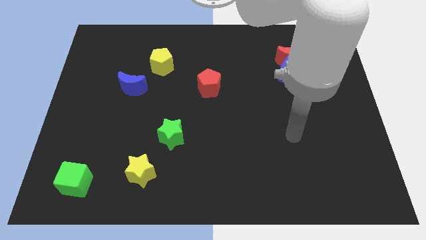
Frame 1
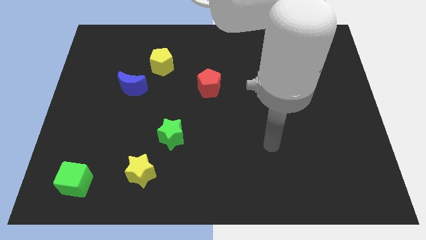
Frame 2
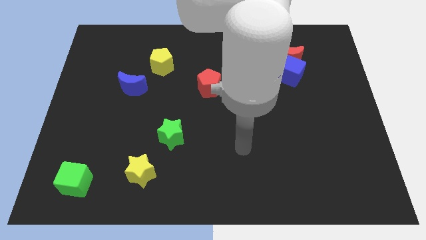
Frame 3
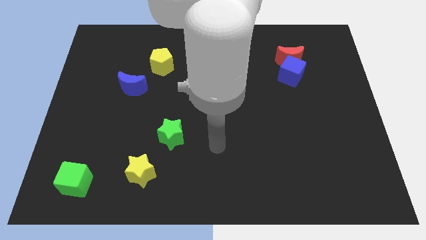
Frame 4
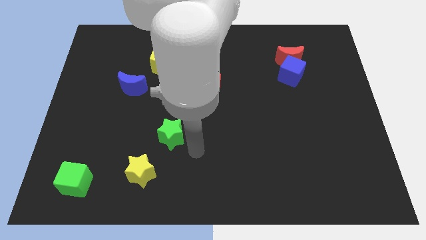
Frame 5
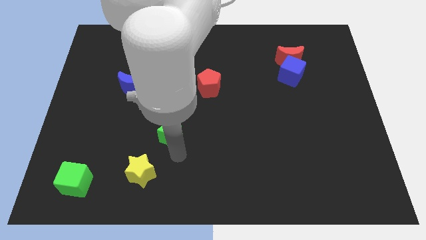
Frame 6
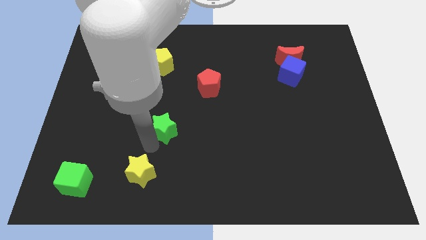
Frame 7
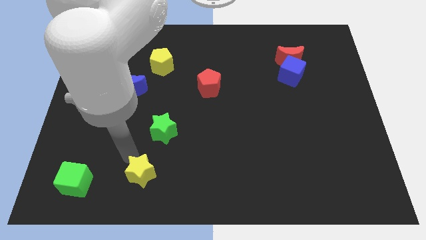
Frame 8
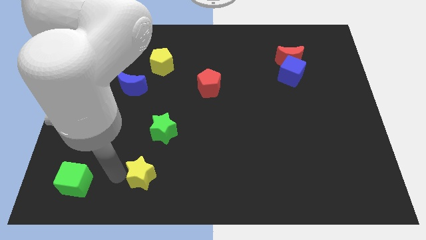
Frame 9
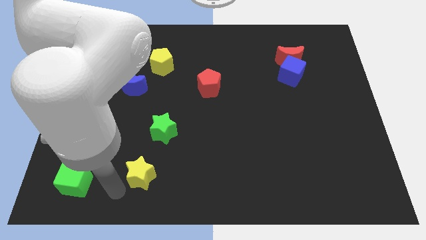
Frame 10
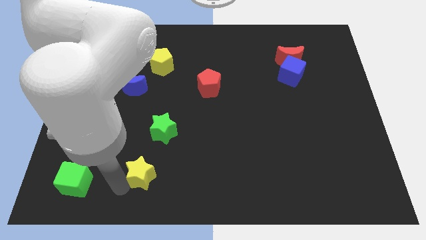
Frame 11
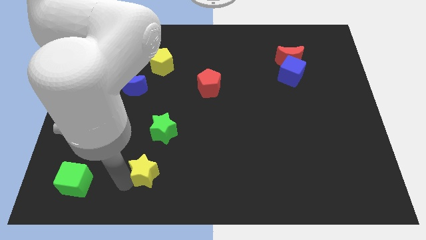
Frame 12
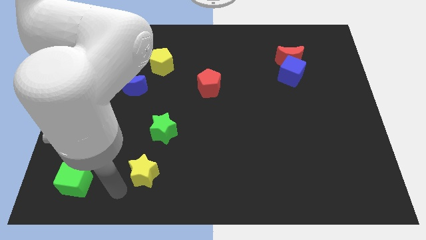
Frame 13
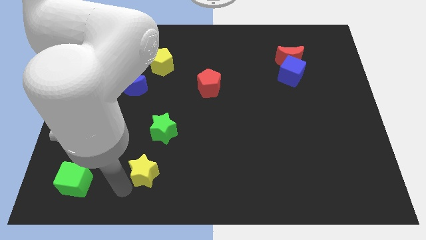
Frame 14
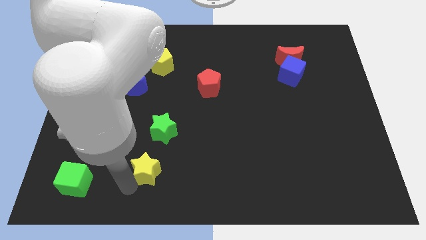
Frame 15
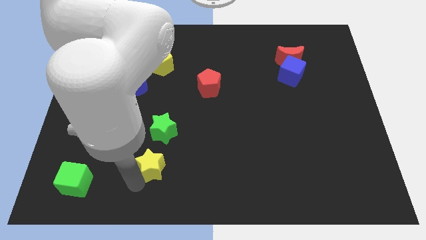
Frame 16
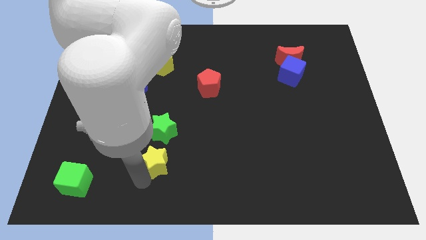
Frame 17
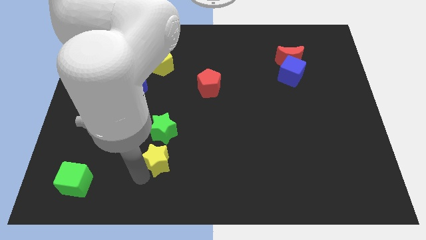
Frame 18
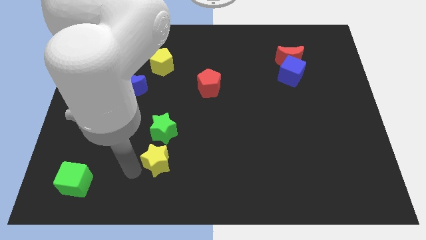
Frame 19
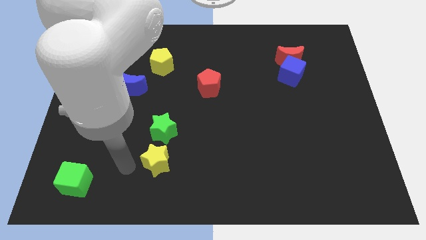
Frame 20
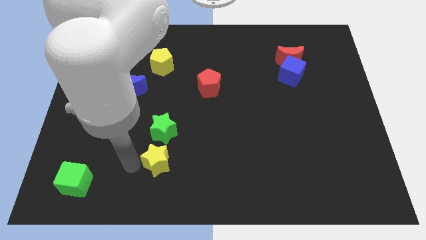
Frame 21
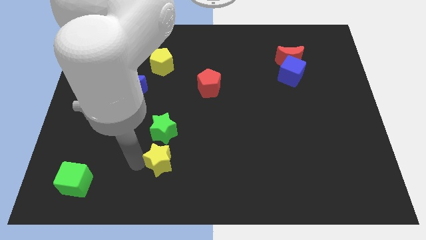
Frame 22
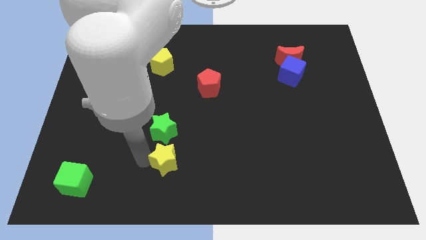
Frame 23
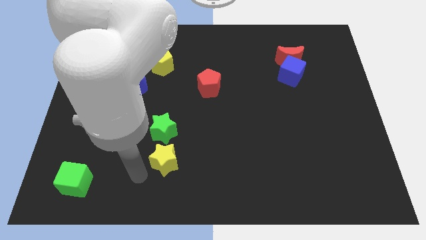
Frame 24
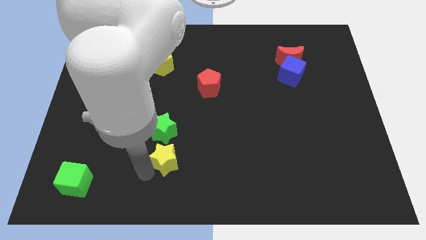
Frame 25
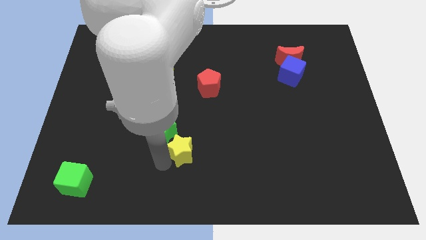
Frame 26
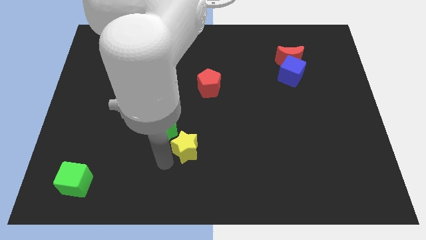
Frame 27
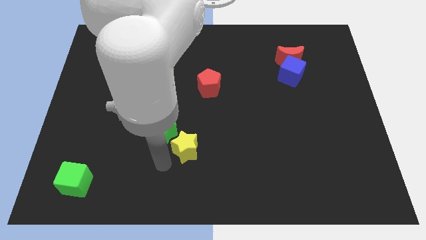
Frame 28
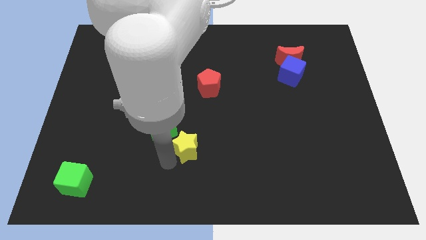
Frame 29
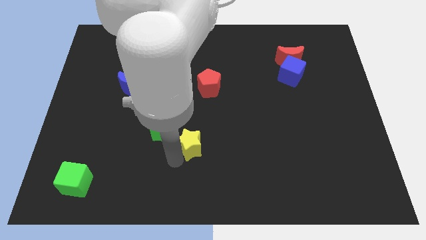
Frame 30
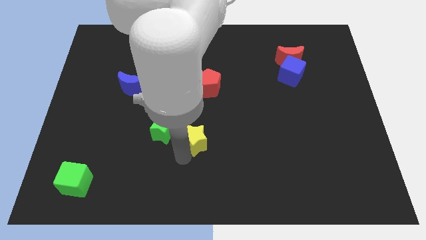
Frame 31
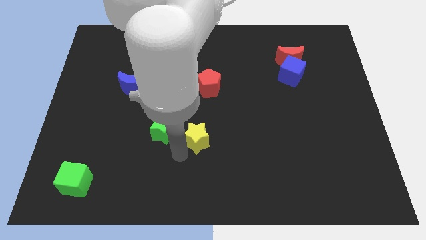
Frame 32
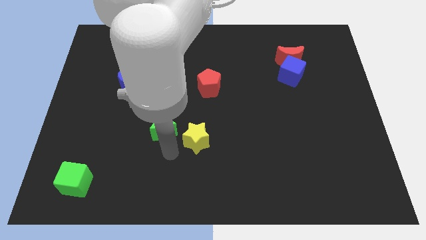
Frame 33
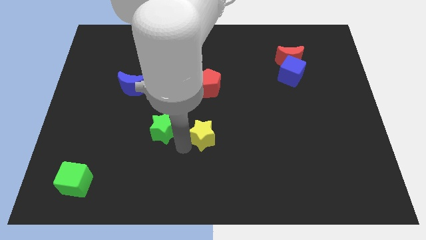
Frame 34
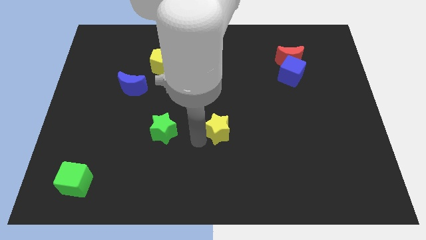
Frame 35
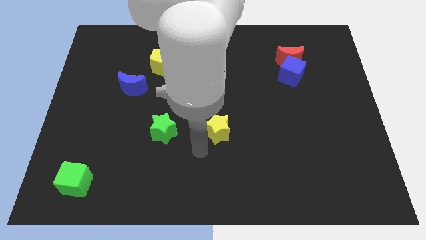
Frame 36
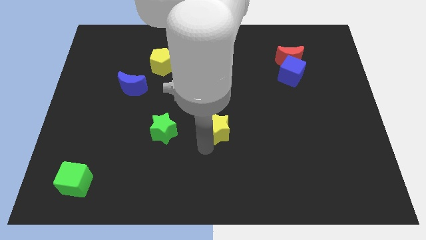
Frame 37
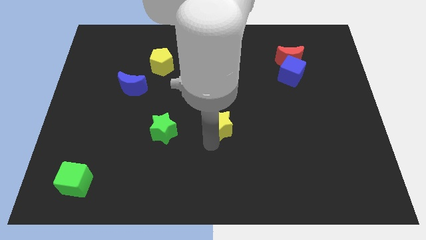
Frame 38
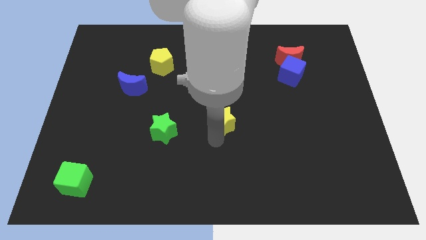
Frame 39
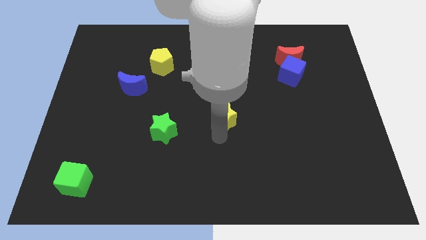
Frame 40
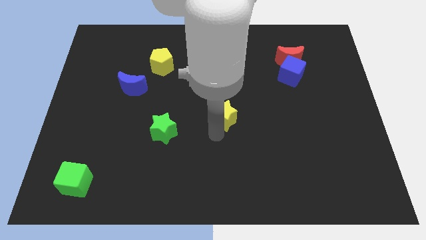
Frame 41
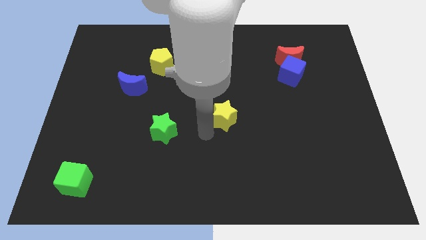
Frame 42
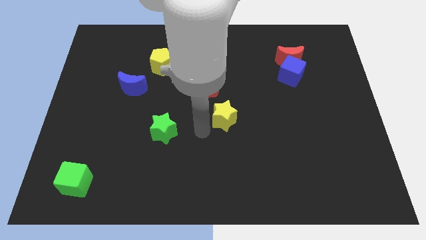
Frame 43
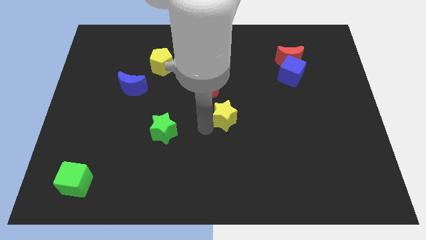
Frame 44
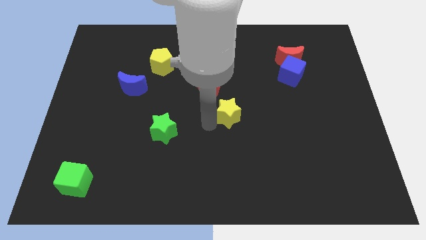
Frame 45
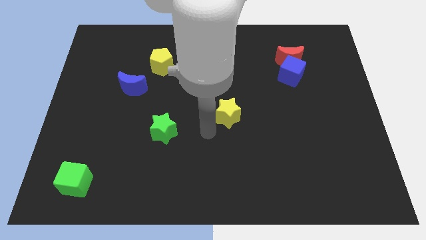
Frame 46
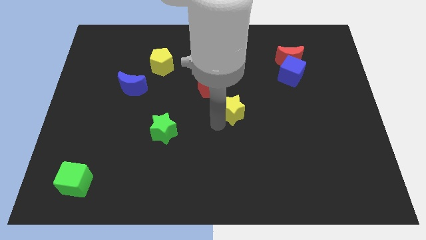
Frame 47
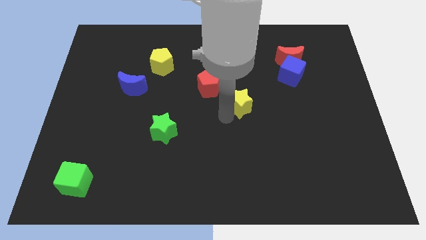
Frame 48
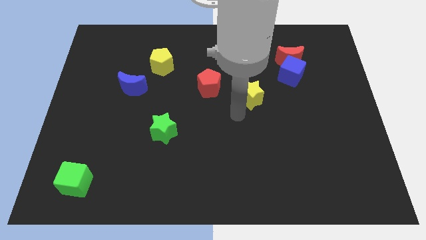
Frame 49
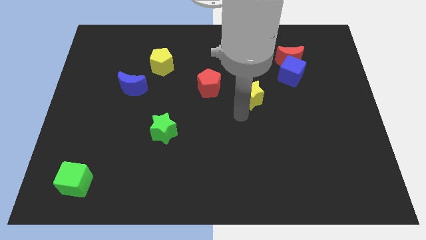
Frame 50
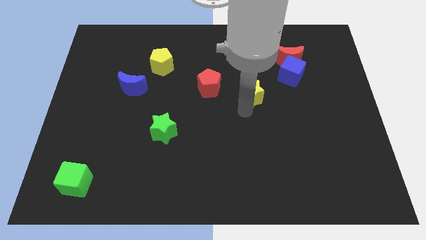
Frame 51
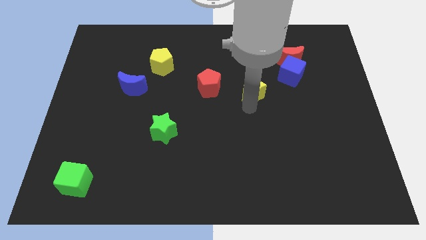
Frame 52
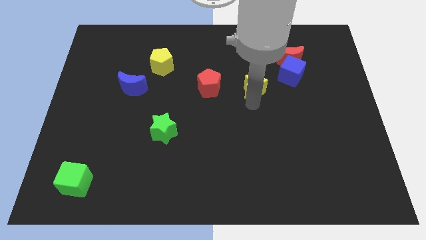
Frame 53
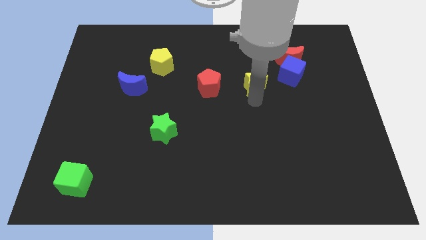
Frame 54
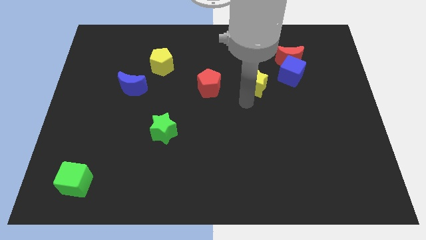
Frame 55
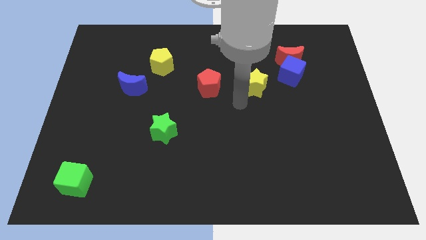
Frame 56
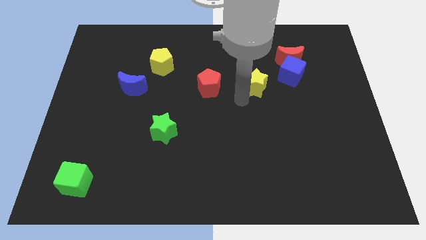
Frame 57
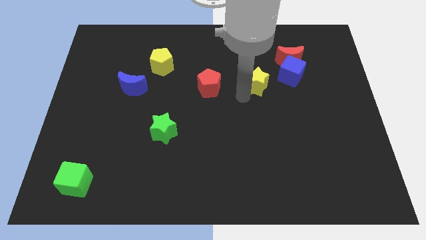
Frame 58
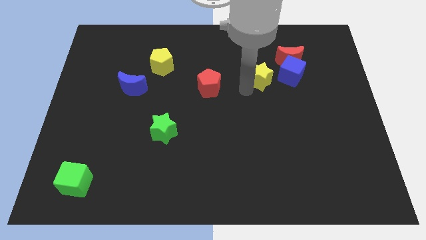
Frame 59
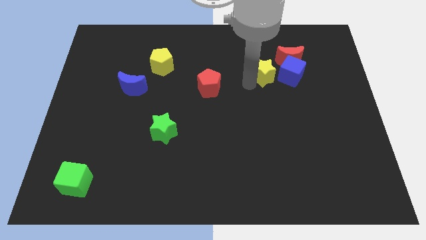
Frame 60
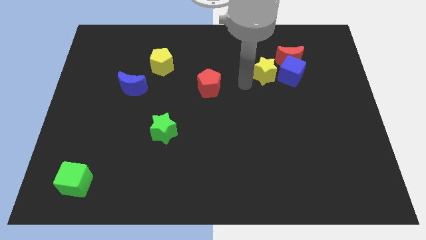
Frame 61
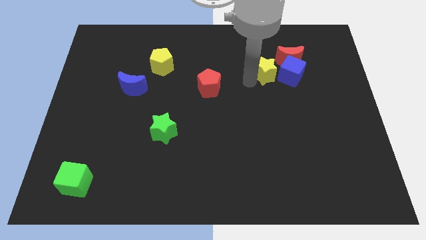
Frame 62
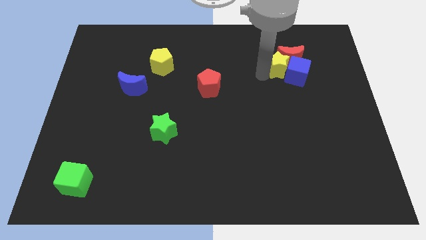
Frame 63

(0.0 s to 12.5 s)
slide the yellow star next to the red moon
